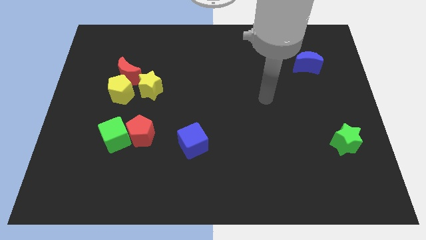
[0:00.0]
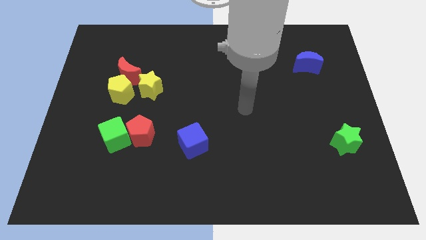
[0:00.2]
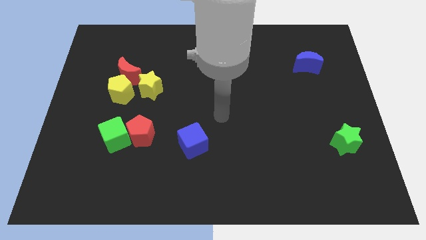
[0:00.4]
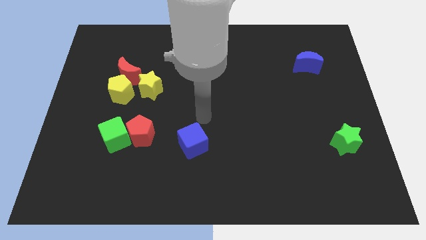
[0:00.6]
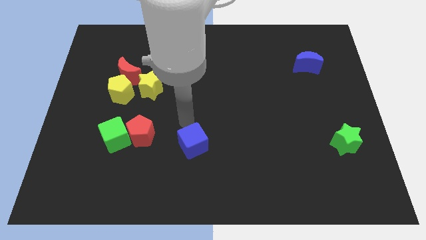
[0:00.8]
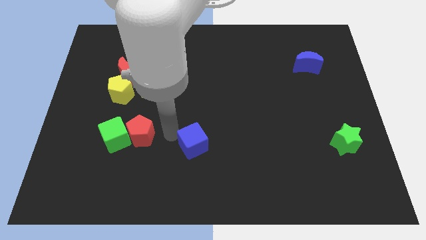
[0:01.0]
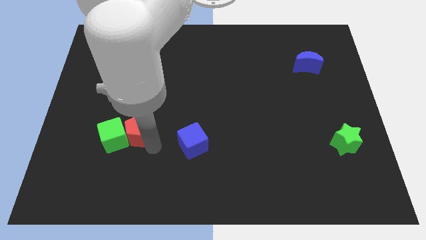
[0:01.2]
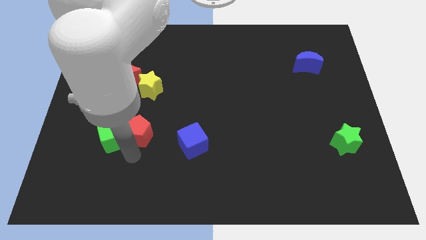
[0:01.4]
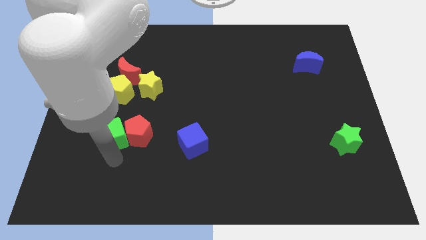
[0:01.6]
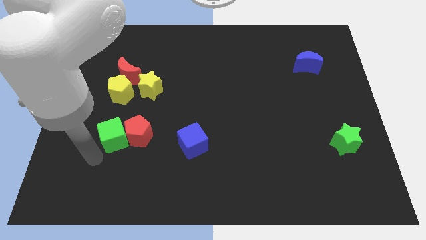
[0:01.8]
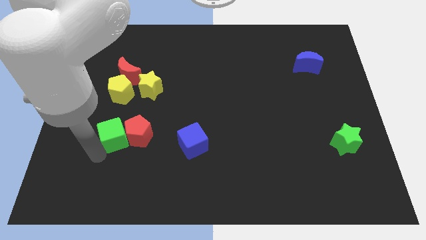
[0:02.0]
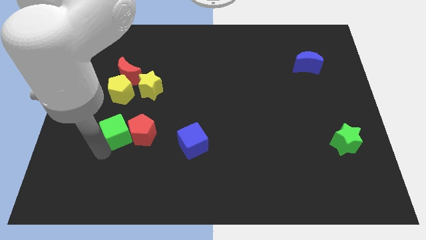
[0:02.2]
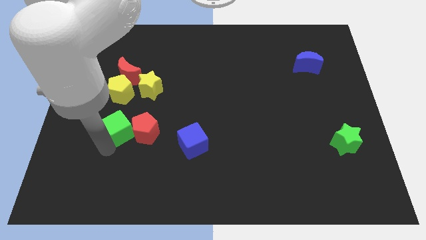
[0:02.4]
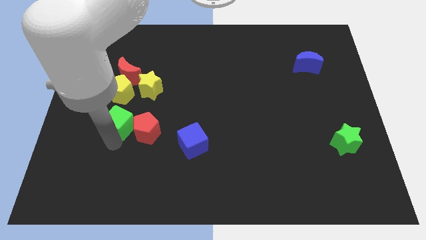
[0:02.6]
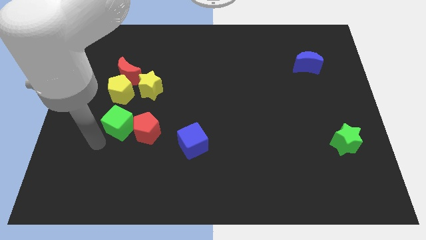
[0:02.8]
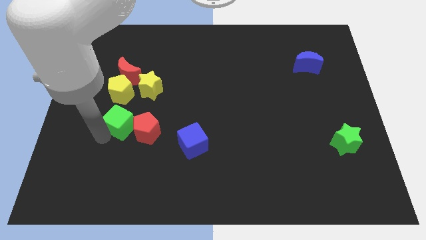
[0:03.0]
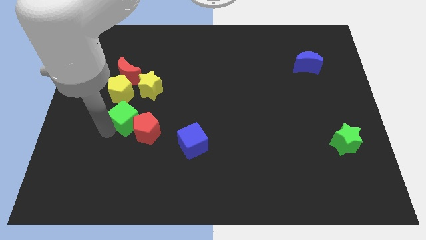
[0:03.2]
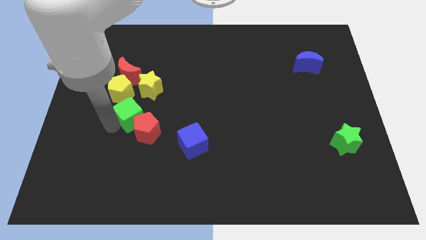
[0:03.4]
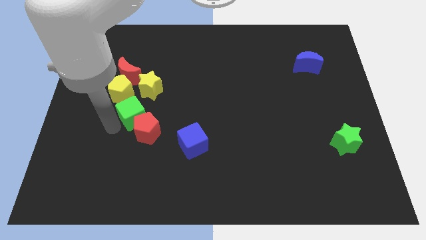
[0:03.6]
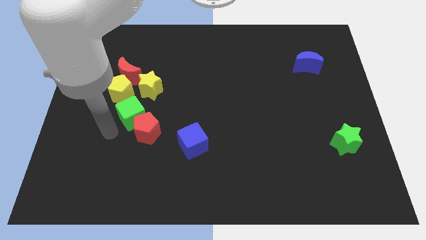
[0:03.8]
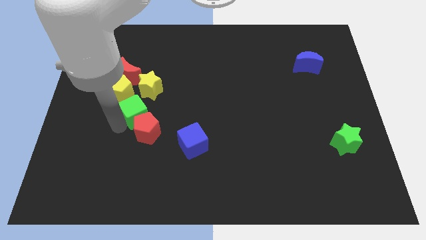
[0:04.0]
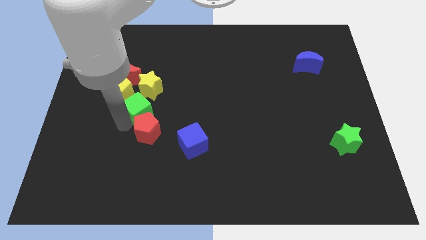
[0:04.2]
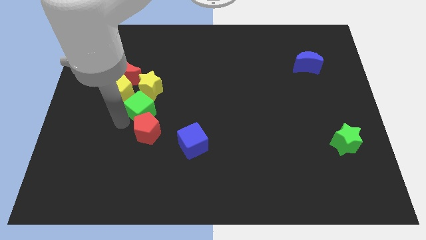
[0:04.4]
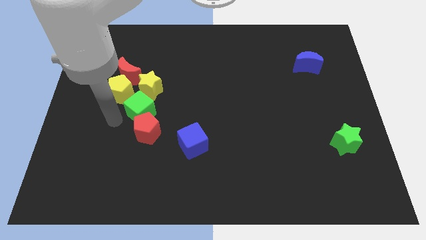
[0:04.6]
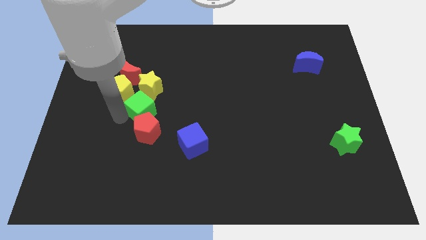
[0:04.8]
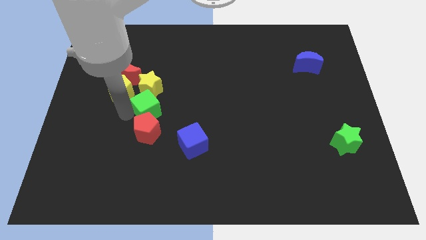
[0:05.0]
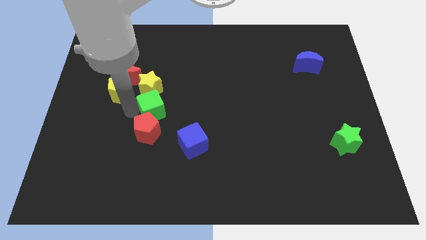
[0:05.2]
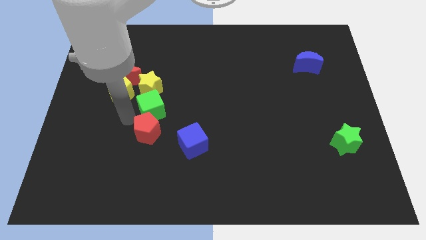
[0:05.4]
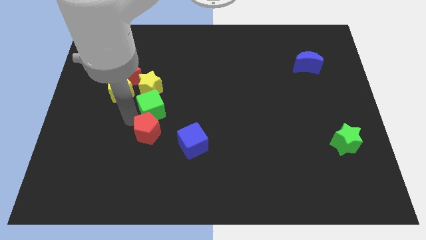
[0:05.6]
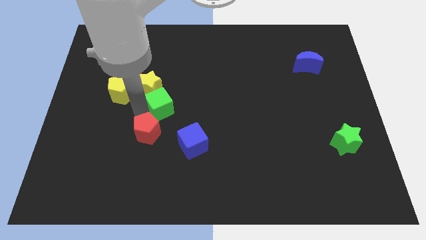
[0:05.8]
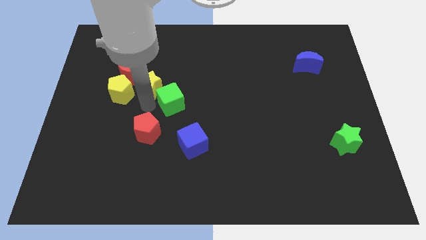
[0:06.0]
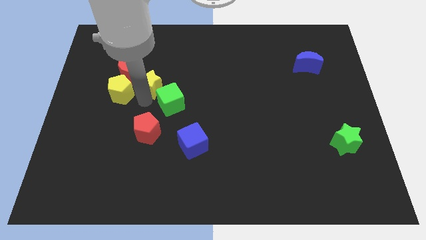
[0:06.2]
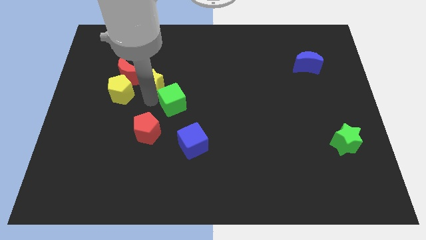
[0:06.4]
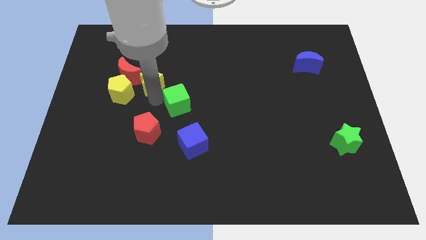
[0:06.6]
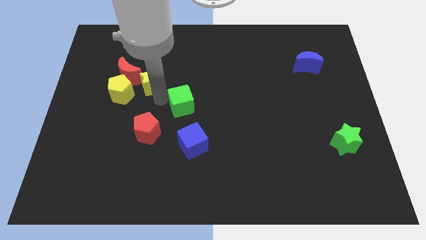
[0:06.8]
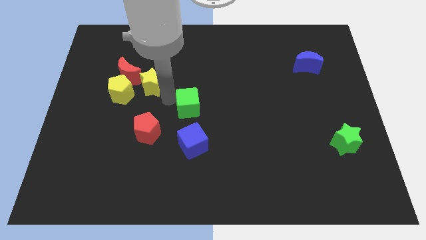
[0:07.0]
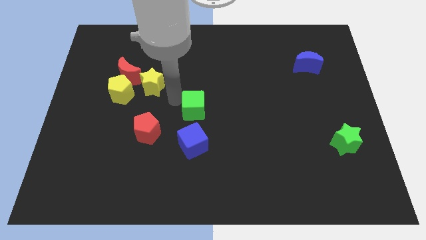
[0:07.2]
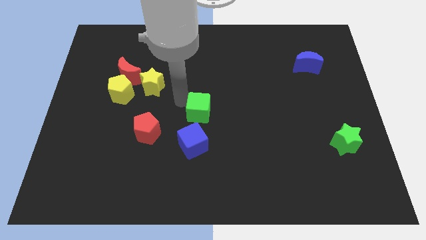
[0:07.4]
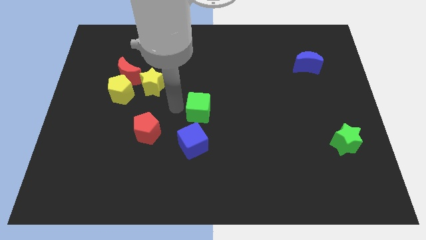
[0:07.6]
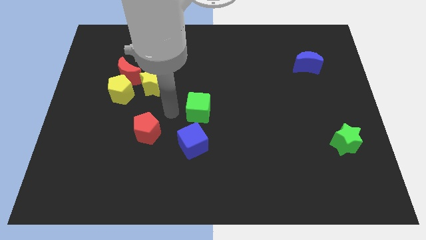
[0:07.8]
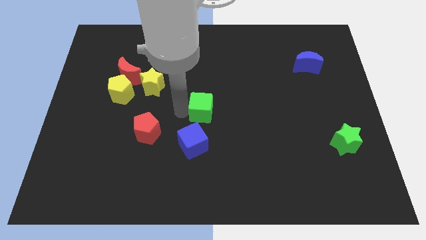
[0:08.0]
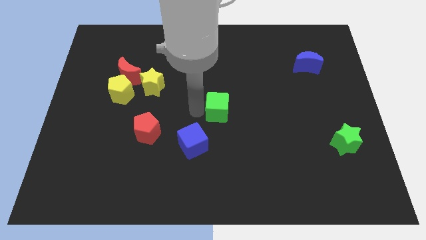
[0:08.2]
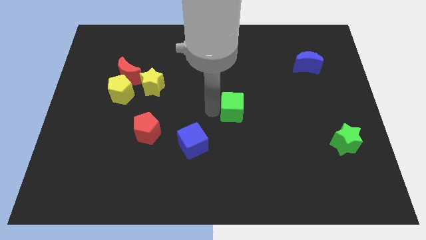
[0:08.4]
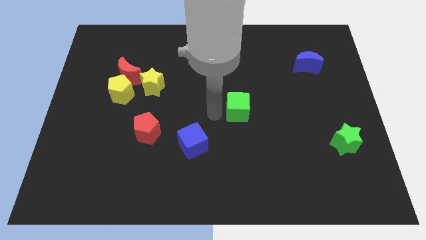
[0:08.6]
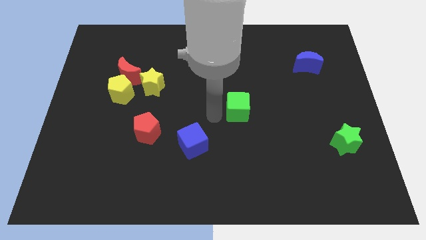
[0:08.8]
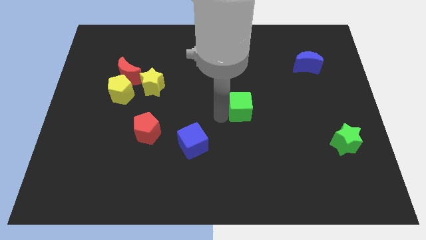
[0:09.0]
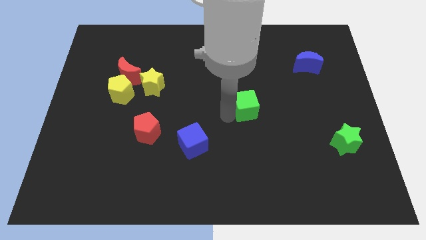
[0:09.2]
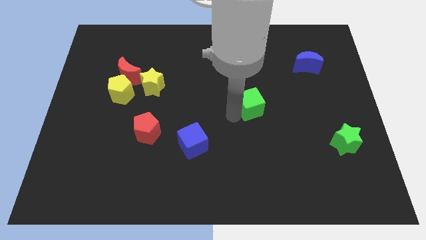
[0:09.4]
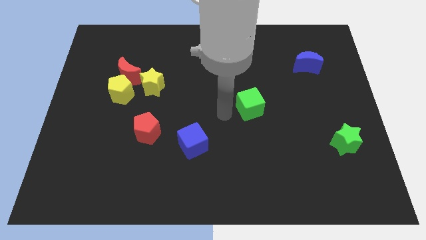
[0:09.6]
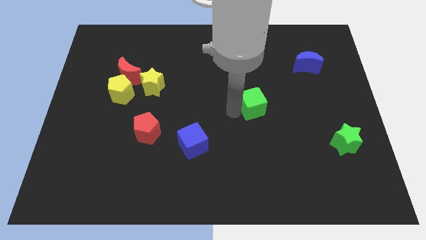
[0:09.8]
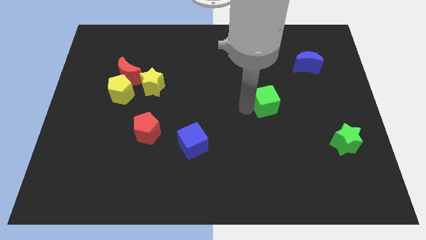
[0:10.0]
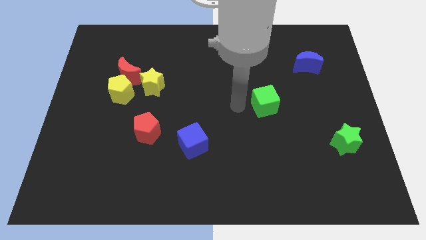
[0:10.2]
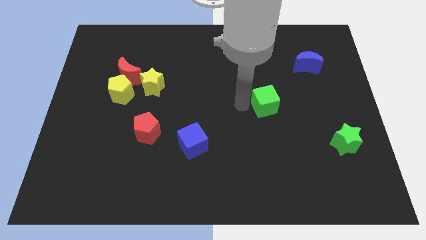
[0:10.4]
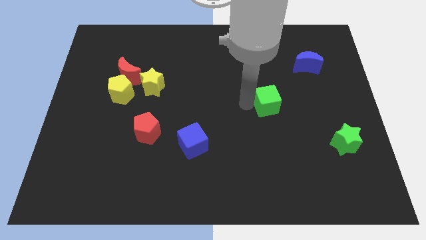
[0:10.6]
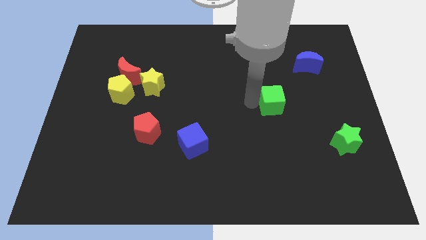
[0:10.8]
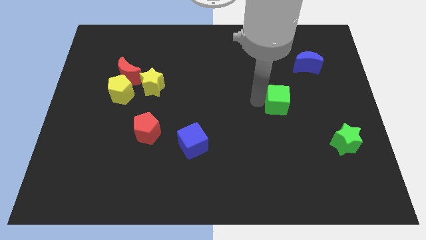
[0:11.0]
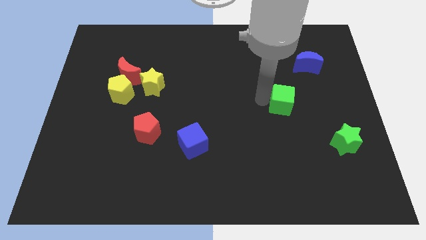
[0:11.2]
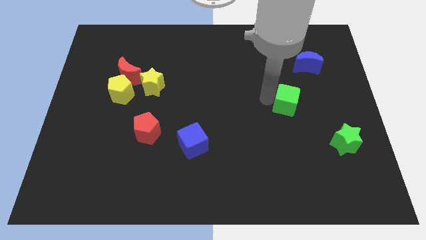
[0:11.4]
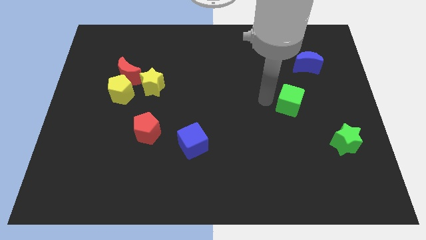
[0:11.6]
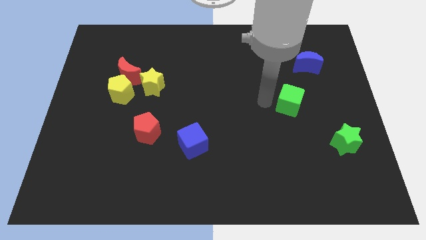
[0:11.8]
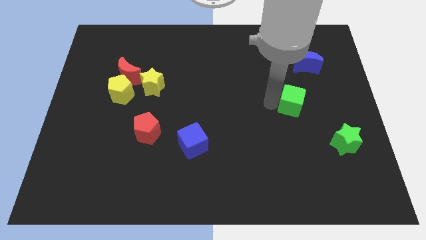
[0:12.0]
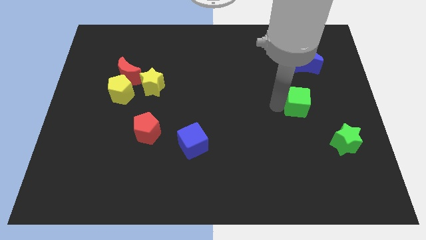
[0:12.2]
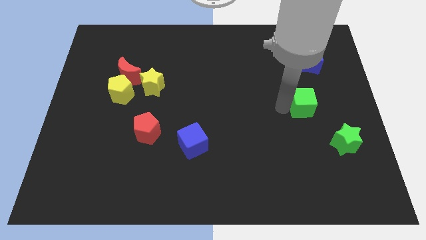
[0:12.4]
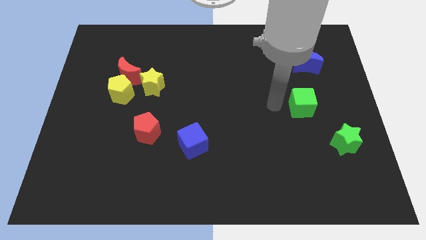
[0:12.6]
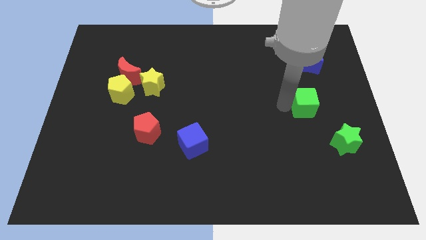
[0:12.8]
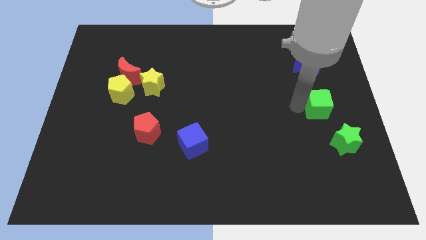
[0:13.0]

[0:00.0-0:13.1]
move the green cube above the green star

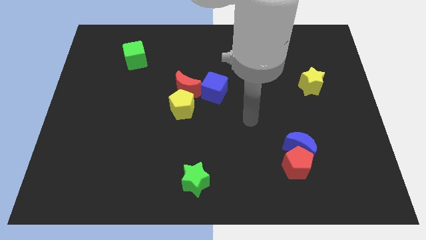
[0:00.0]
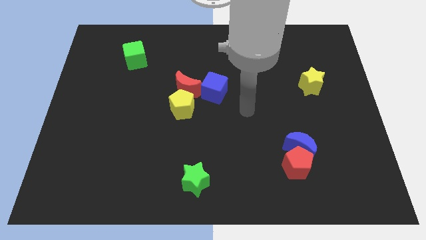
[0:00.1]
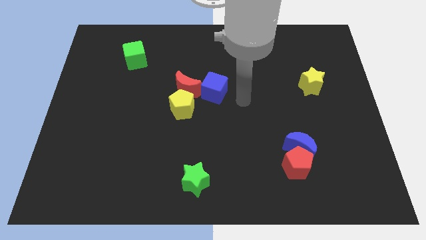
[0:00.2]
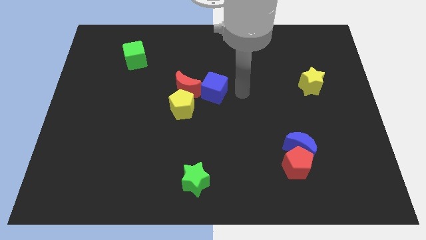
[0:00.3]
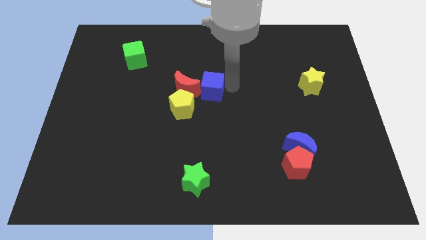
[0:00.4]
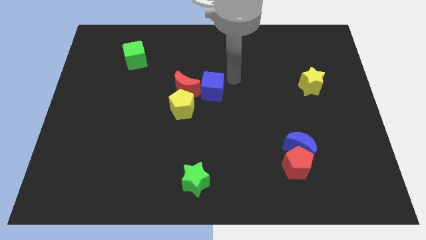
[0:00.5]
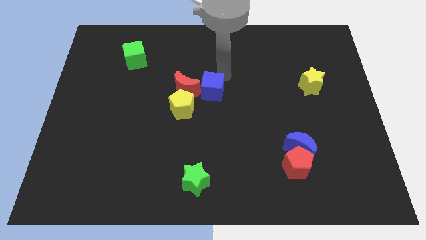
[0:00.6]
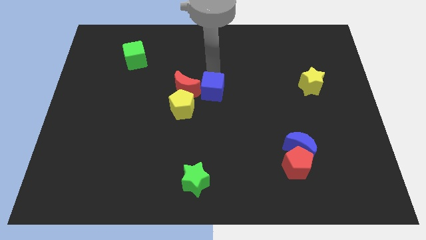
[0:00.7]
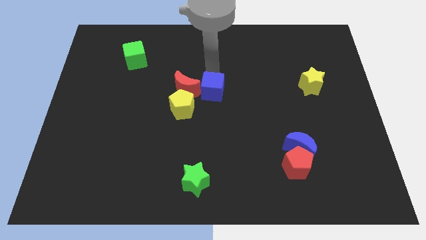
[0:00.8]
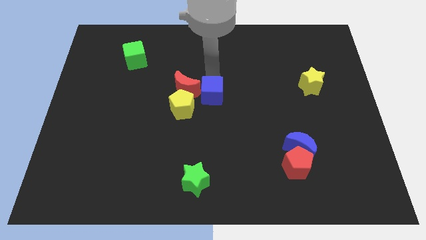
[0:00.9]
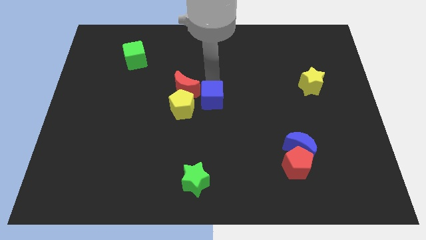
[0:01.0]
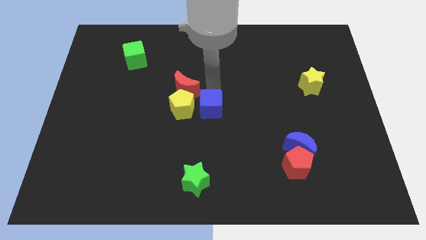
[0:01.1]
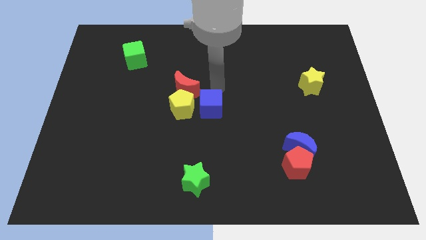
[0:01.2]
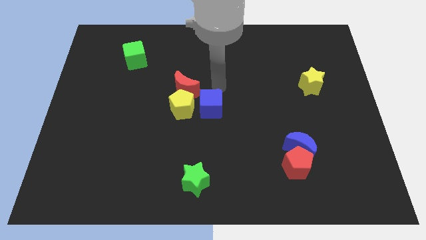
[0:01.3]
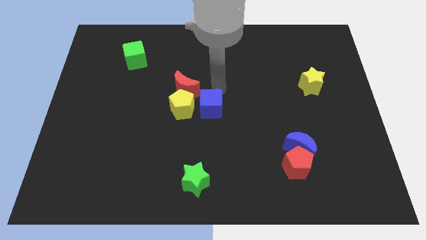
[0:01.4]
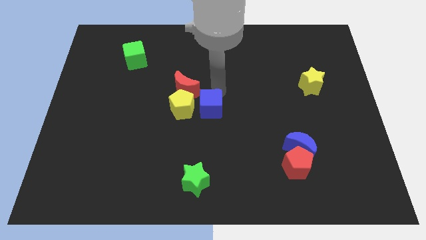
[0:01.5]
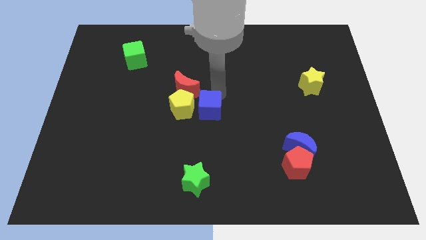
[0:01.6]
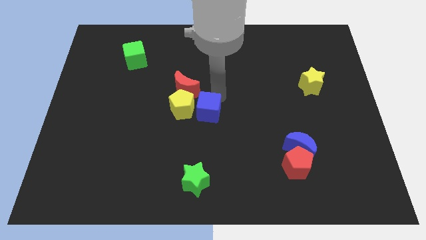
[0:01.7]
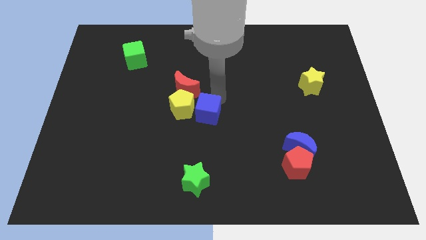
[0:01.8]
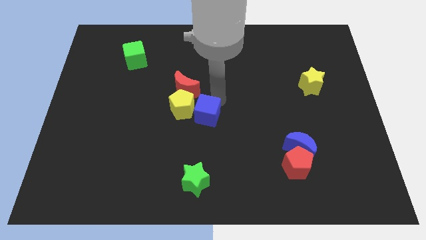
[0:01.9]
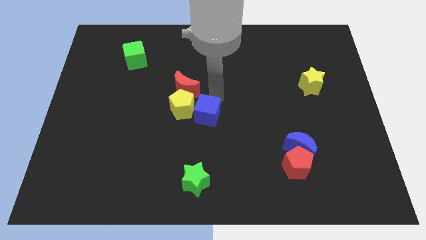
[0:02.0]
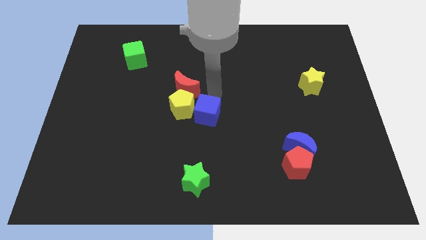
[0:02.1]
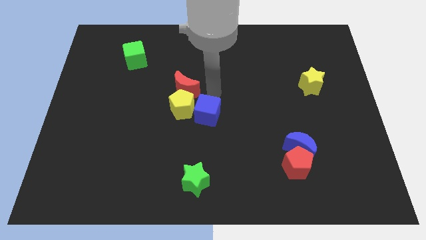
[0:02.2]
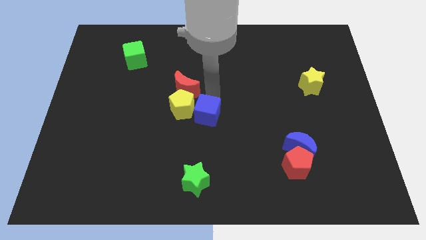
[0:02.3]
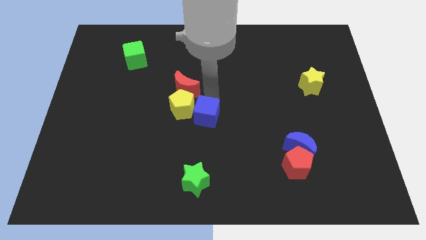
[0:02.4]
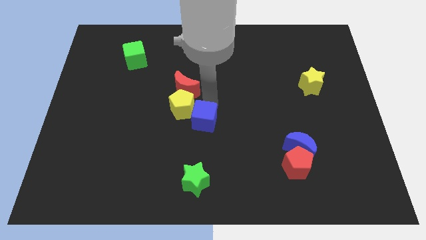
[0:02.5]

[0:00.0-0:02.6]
slide the blue cube to the top side of the green star
